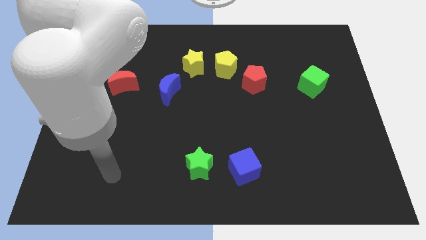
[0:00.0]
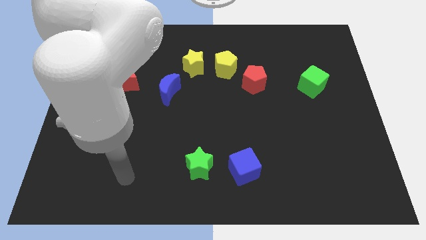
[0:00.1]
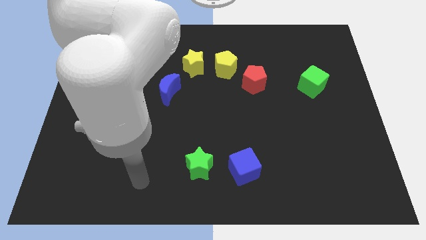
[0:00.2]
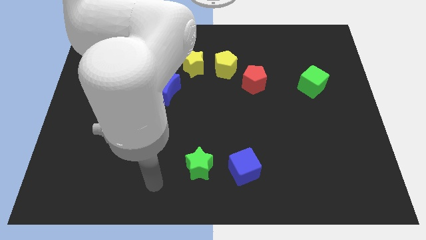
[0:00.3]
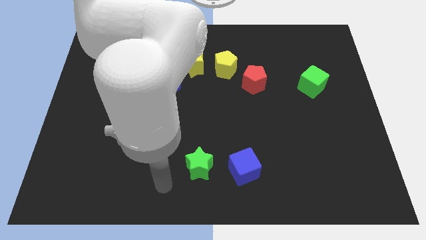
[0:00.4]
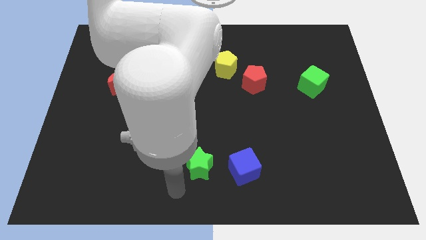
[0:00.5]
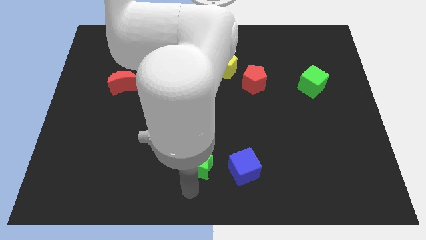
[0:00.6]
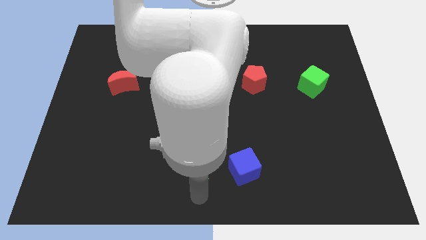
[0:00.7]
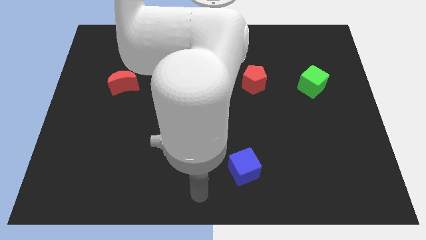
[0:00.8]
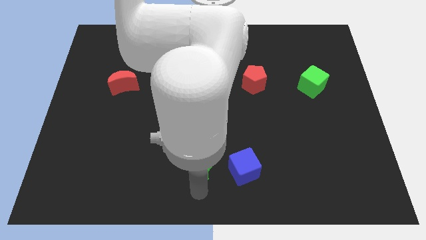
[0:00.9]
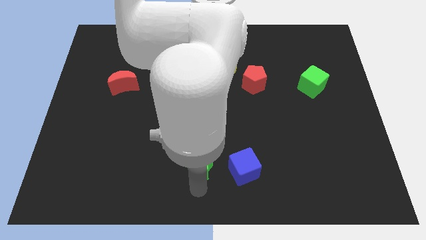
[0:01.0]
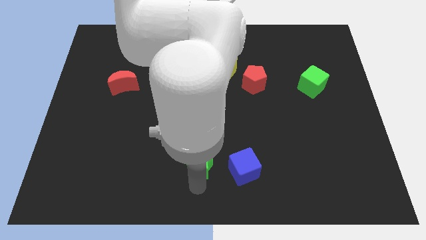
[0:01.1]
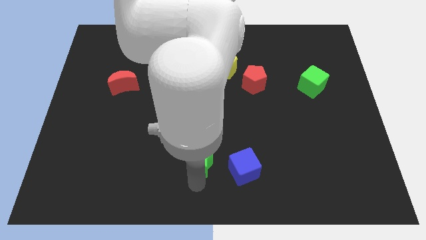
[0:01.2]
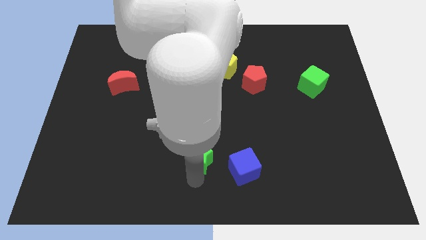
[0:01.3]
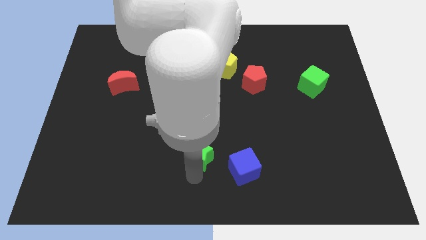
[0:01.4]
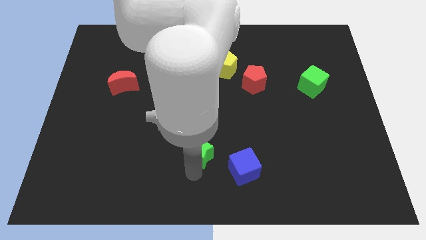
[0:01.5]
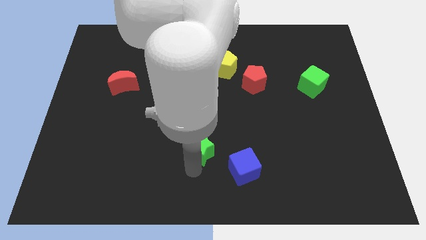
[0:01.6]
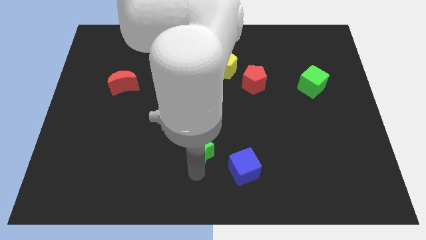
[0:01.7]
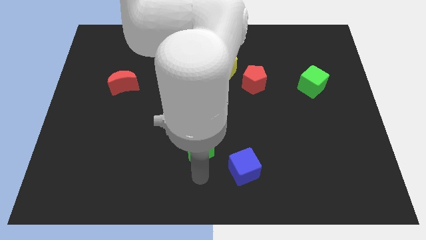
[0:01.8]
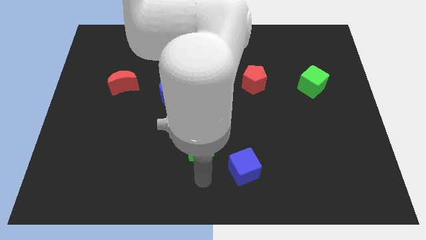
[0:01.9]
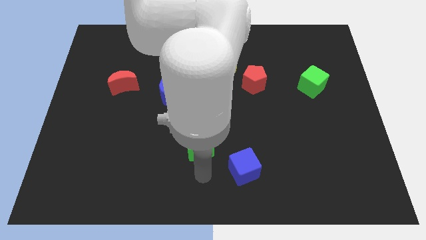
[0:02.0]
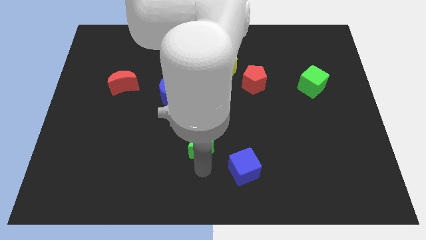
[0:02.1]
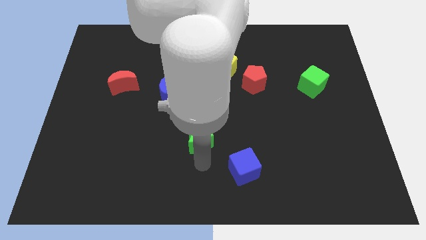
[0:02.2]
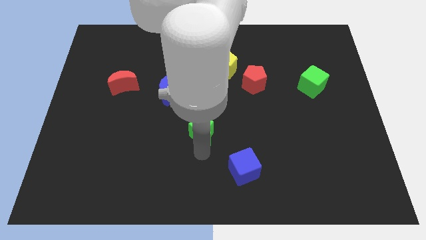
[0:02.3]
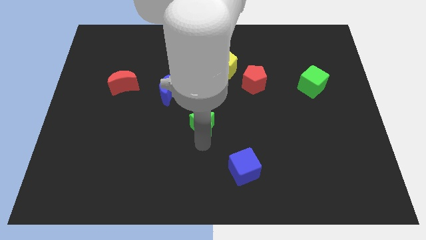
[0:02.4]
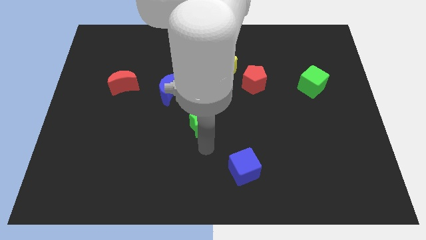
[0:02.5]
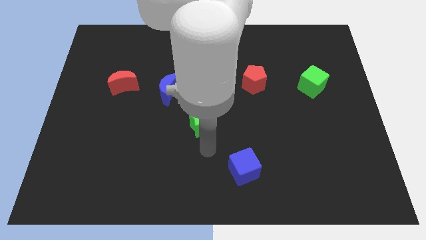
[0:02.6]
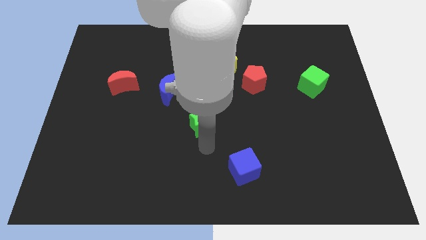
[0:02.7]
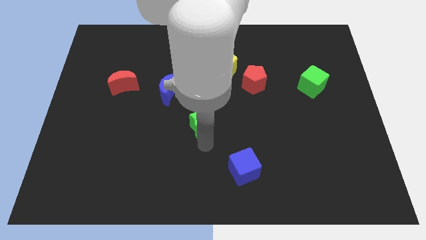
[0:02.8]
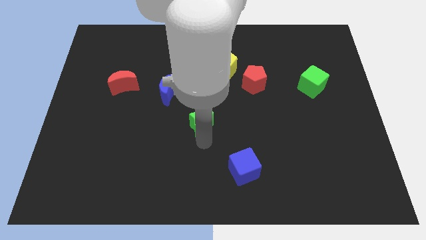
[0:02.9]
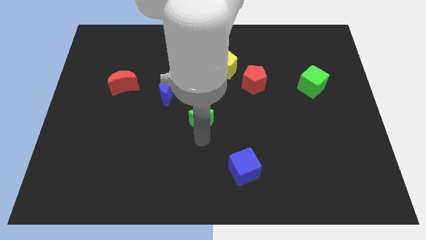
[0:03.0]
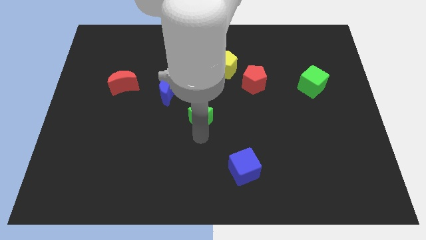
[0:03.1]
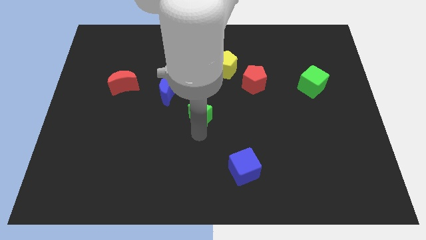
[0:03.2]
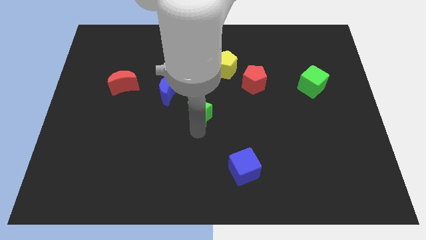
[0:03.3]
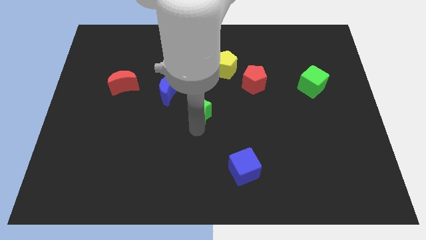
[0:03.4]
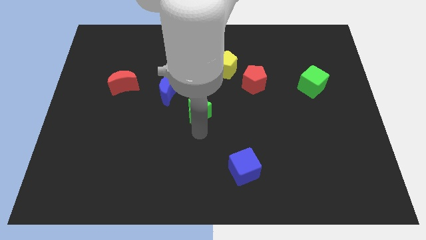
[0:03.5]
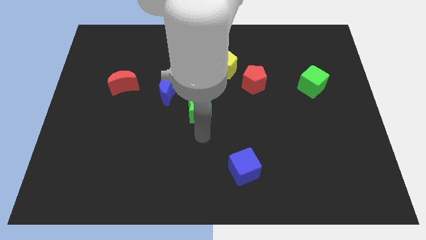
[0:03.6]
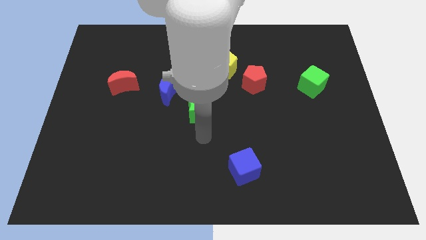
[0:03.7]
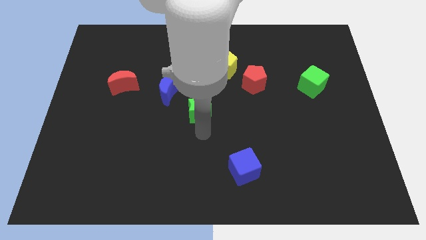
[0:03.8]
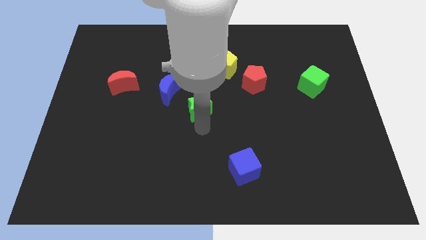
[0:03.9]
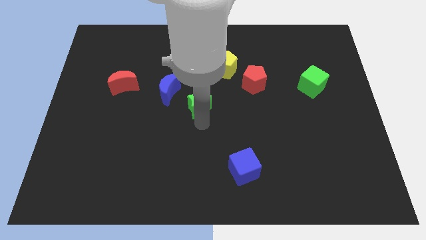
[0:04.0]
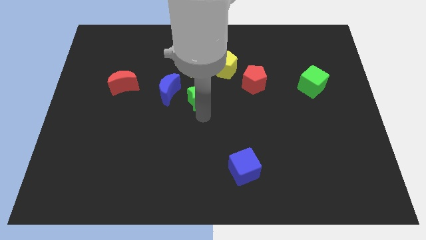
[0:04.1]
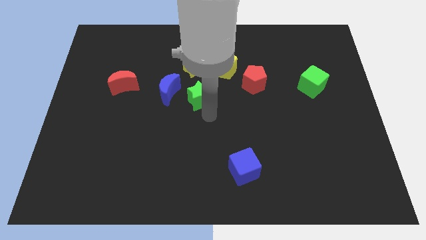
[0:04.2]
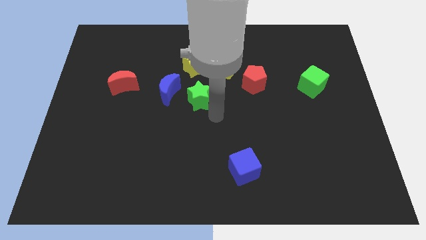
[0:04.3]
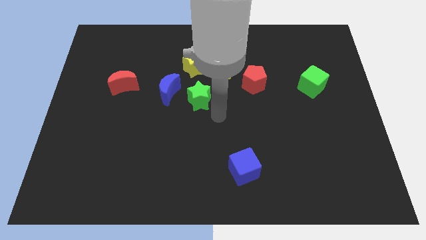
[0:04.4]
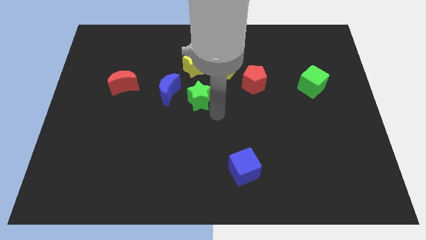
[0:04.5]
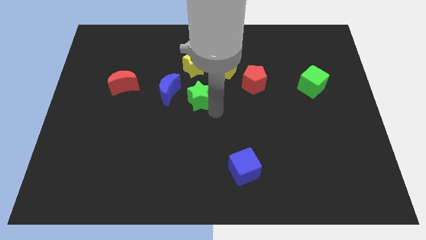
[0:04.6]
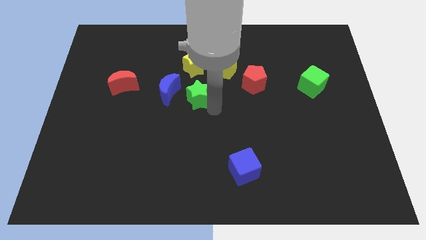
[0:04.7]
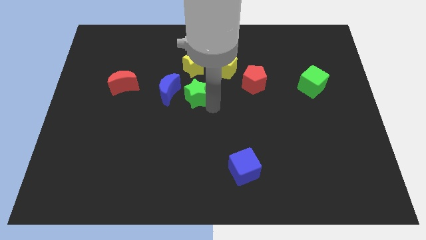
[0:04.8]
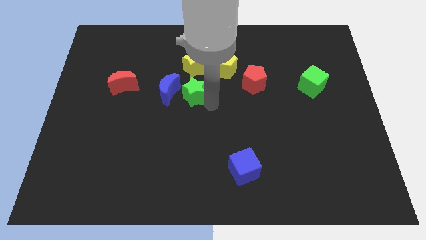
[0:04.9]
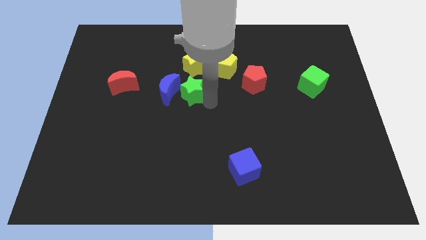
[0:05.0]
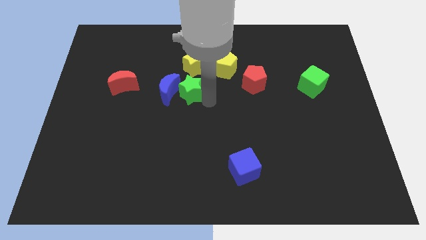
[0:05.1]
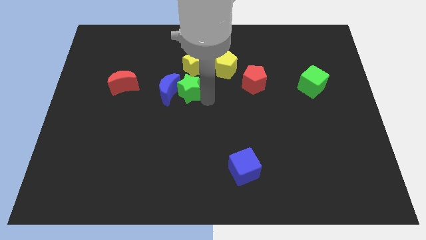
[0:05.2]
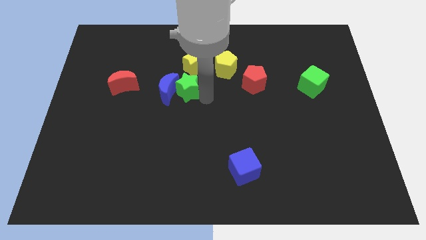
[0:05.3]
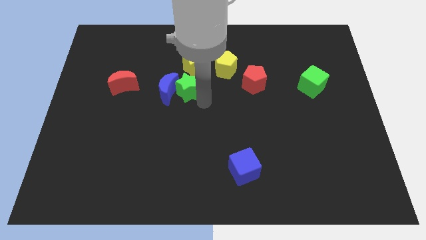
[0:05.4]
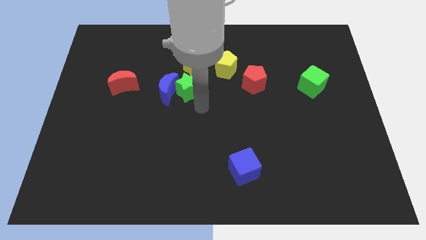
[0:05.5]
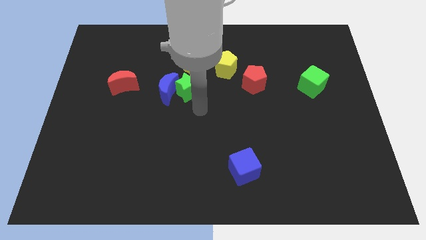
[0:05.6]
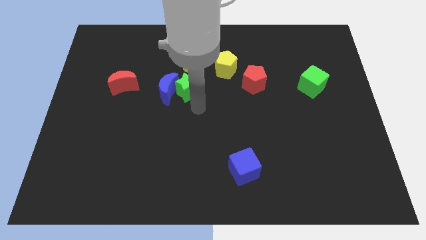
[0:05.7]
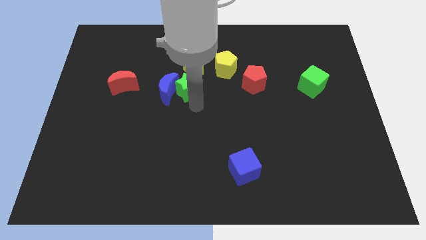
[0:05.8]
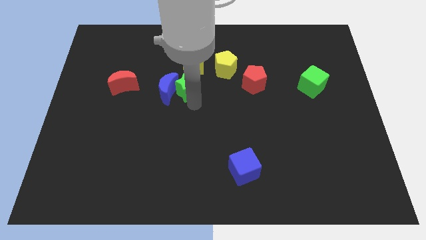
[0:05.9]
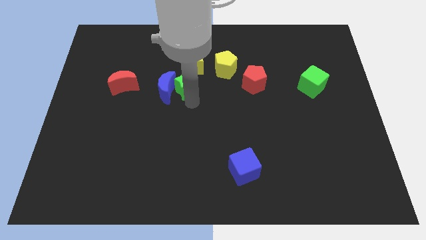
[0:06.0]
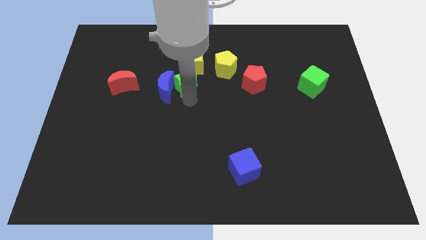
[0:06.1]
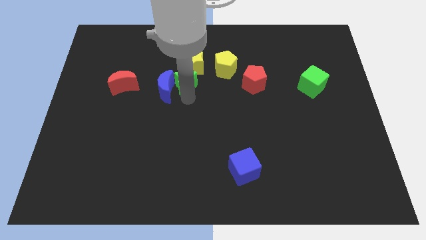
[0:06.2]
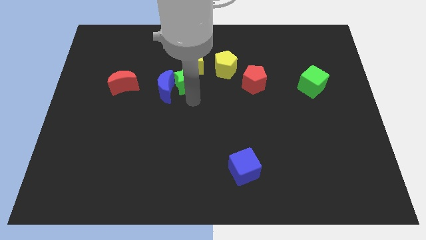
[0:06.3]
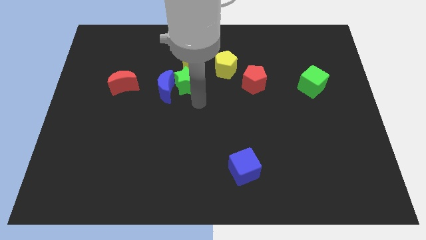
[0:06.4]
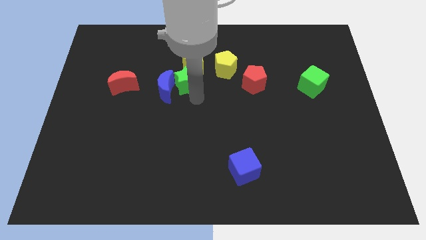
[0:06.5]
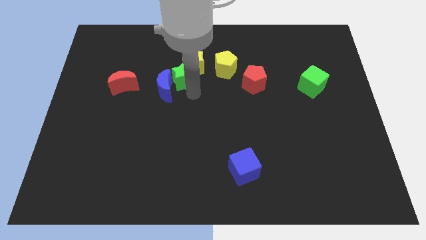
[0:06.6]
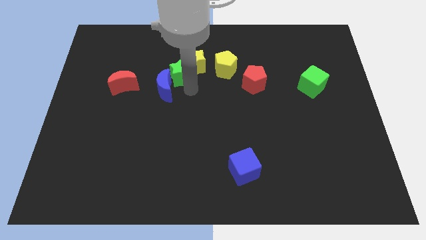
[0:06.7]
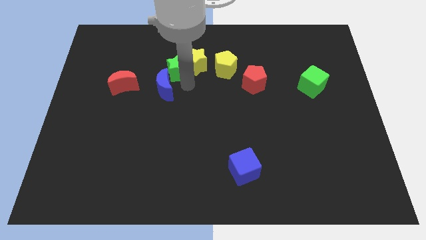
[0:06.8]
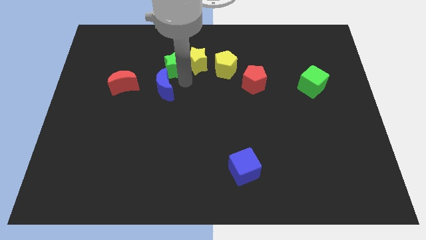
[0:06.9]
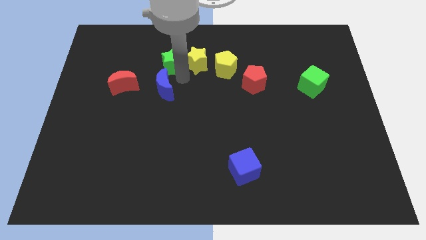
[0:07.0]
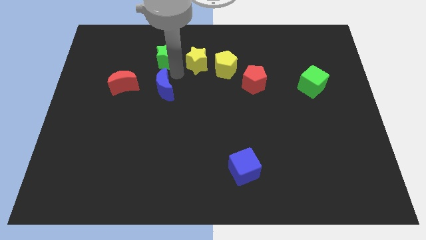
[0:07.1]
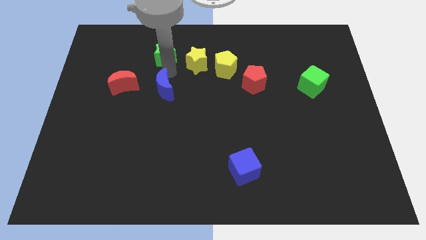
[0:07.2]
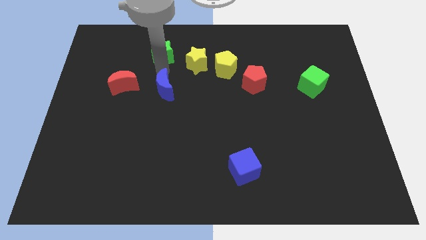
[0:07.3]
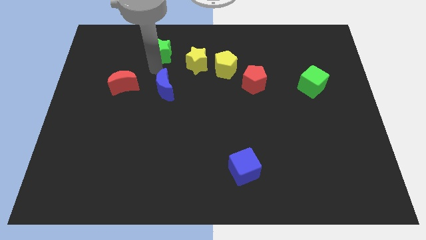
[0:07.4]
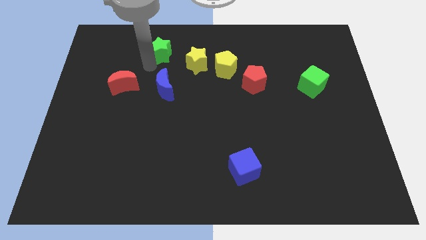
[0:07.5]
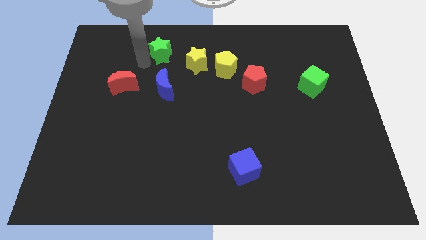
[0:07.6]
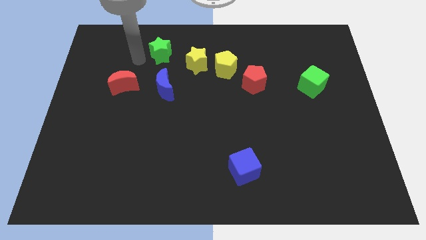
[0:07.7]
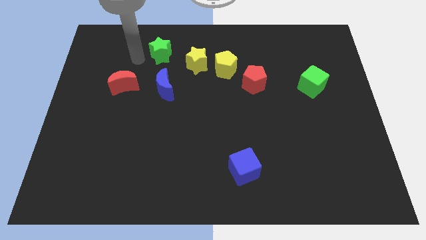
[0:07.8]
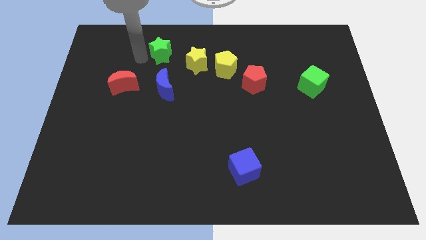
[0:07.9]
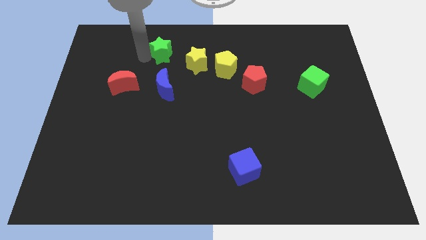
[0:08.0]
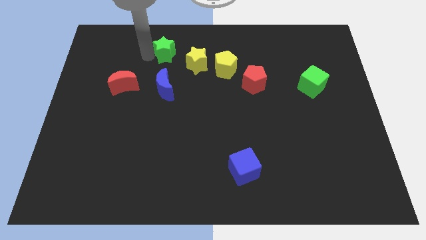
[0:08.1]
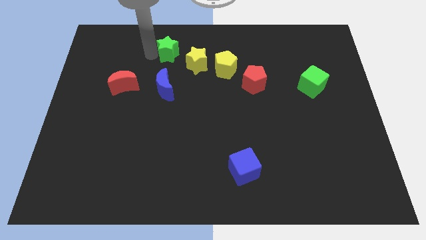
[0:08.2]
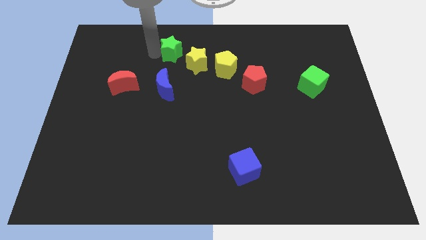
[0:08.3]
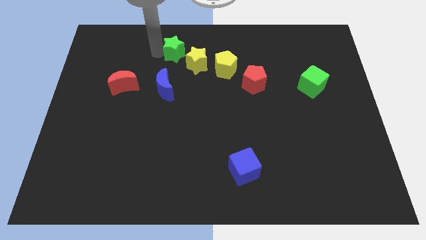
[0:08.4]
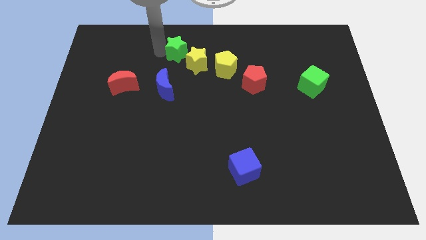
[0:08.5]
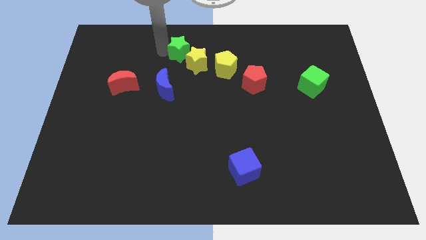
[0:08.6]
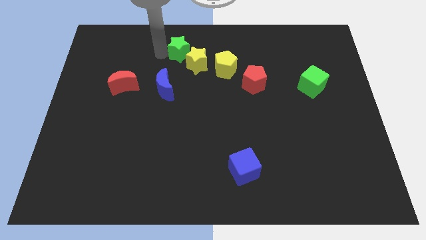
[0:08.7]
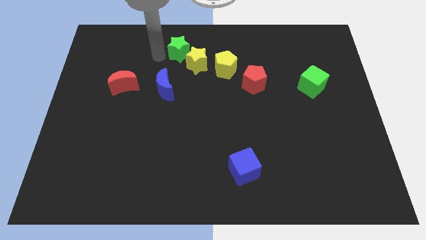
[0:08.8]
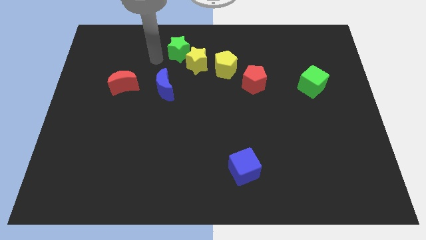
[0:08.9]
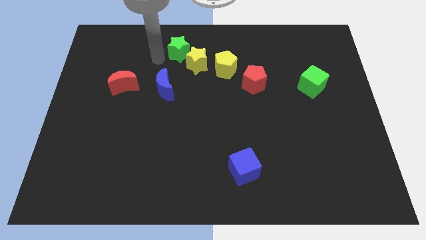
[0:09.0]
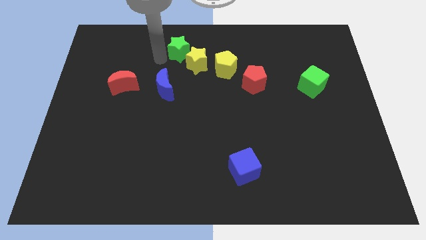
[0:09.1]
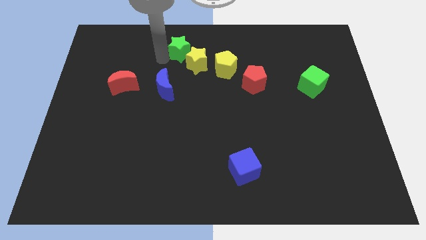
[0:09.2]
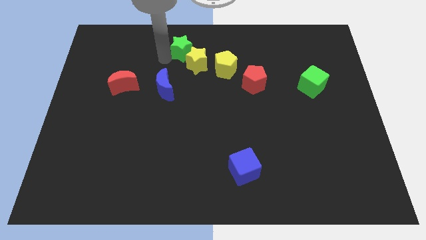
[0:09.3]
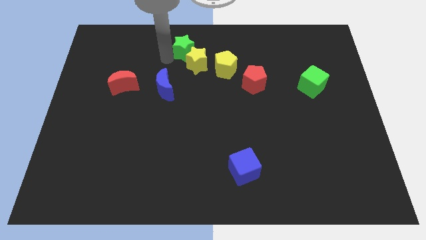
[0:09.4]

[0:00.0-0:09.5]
move the green star to the top side
